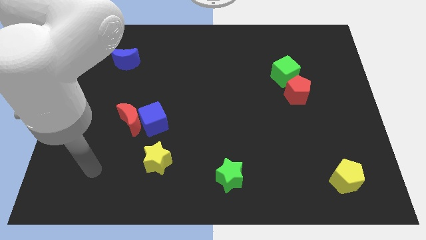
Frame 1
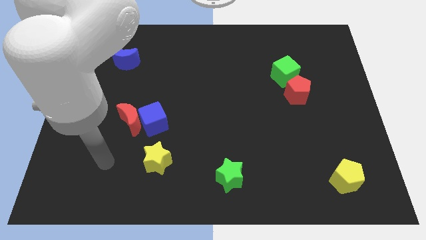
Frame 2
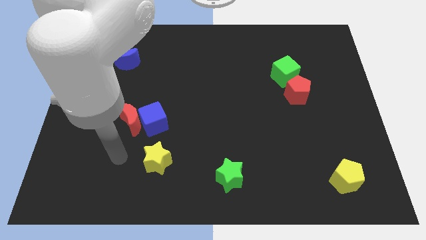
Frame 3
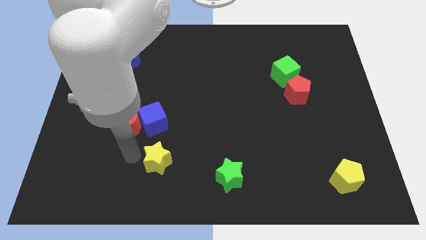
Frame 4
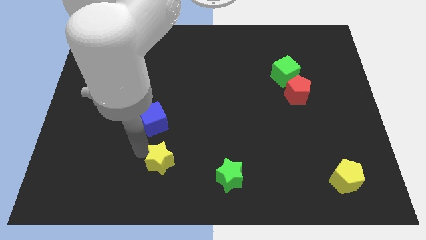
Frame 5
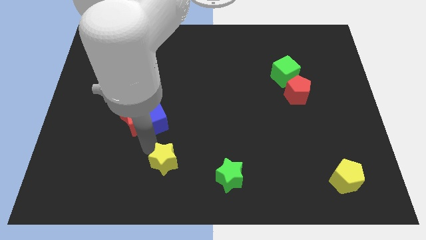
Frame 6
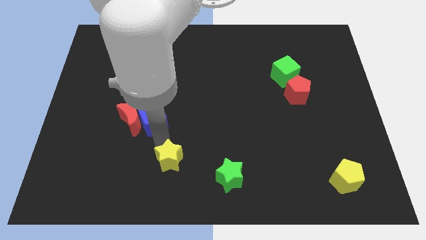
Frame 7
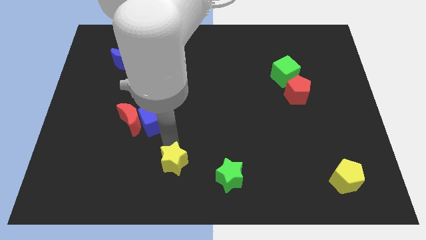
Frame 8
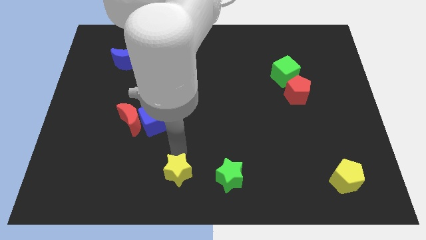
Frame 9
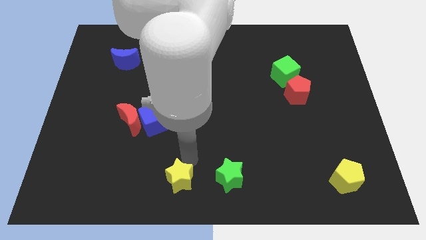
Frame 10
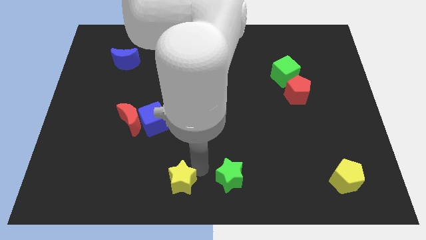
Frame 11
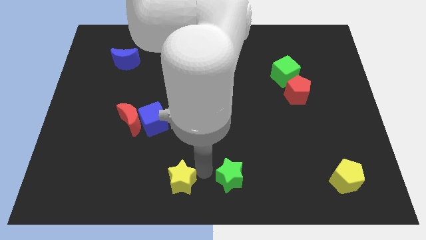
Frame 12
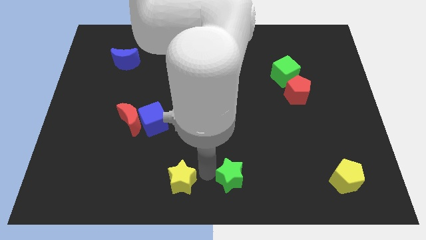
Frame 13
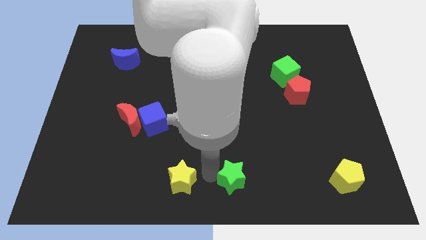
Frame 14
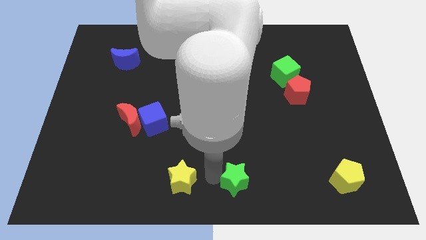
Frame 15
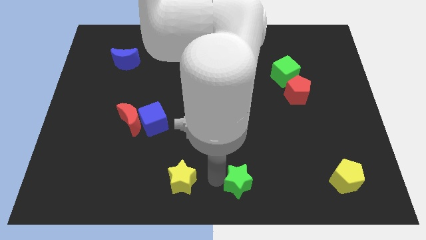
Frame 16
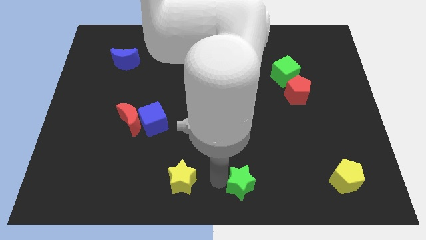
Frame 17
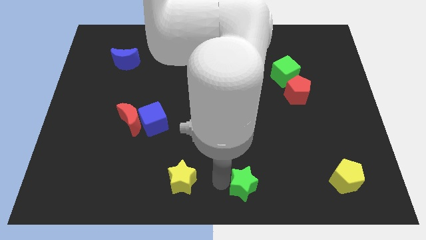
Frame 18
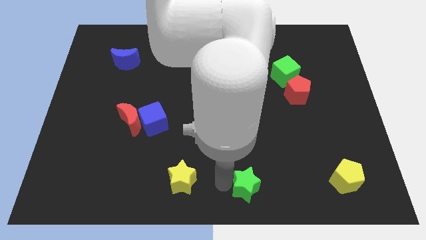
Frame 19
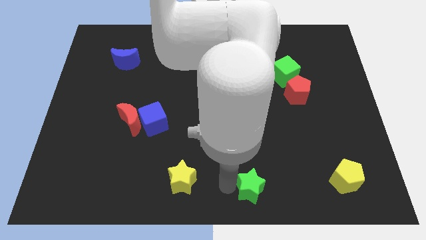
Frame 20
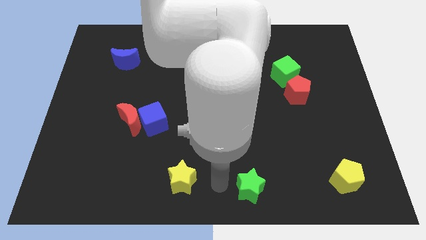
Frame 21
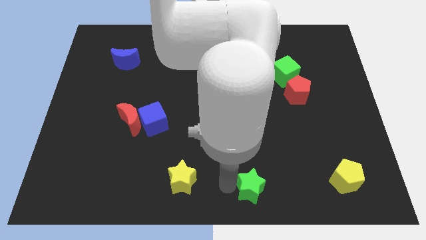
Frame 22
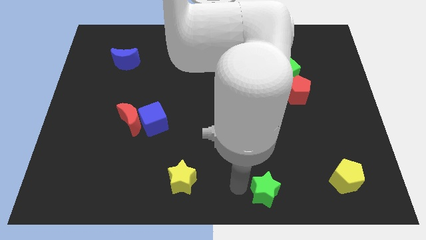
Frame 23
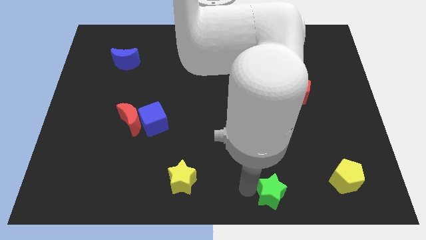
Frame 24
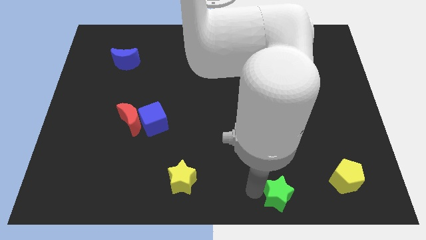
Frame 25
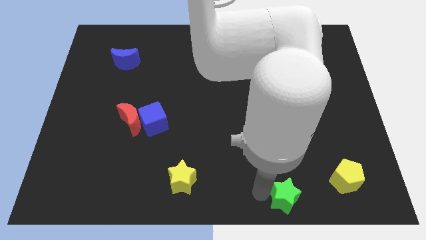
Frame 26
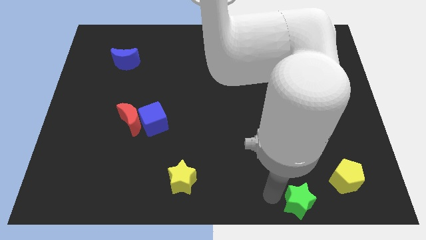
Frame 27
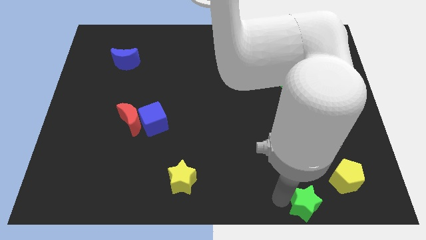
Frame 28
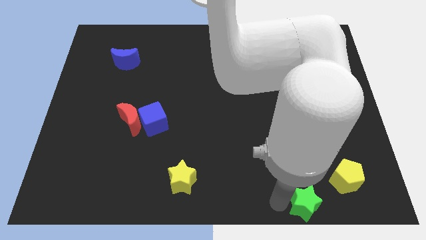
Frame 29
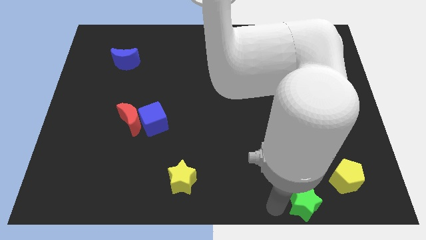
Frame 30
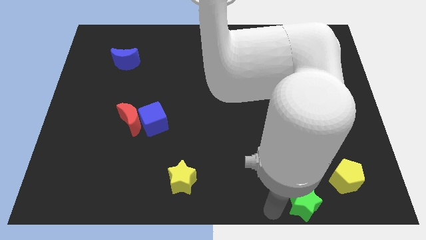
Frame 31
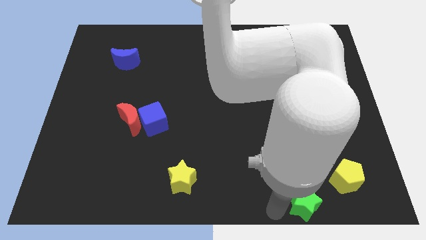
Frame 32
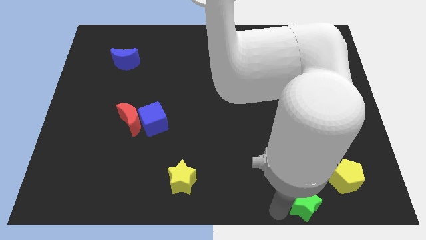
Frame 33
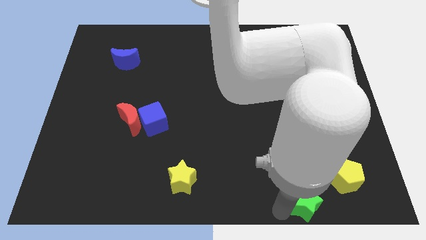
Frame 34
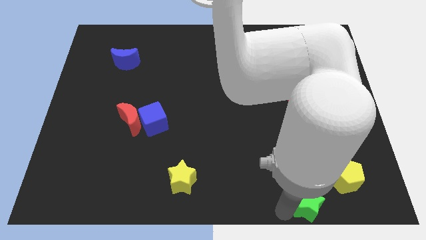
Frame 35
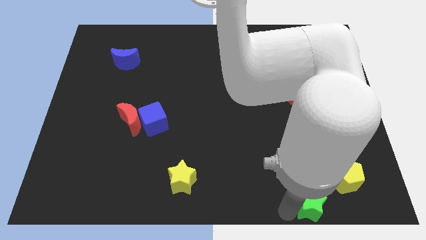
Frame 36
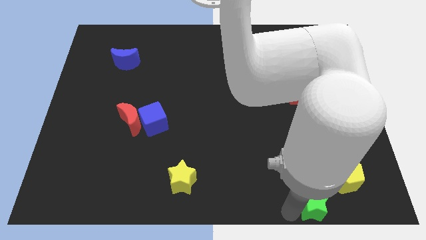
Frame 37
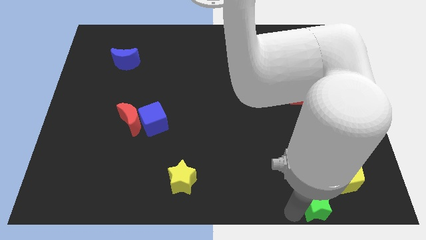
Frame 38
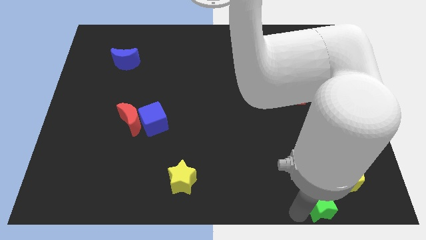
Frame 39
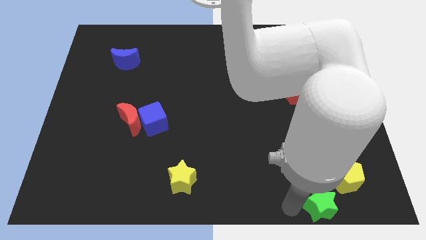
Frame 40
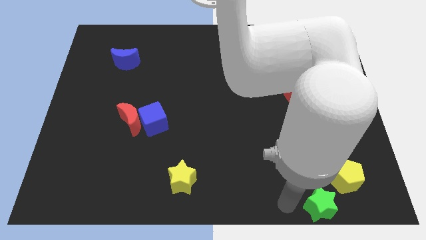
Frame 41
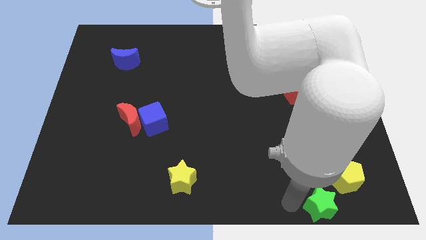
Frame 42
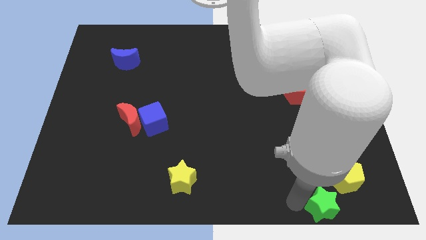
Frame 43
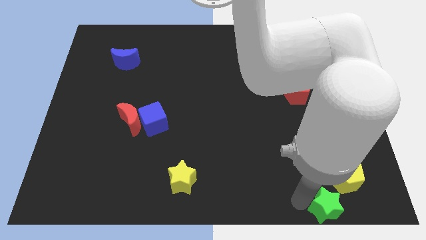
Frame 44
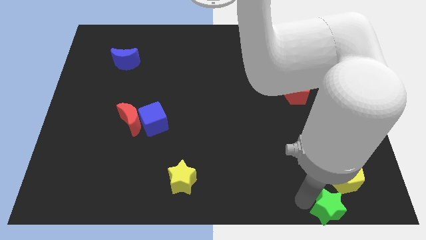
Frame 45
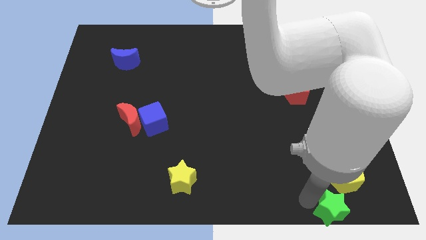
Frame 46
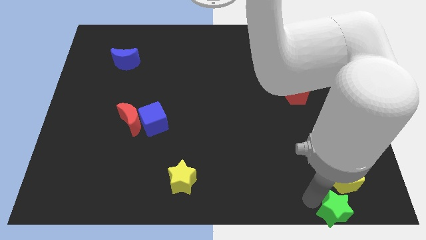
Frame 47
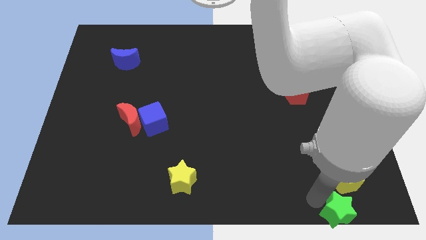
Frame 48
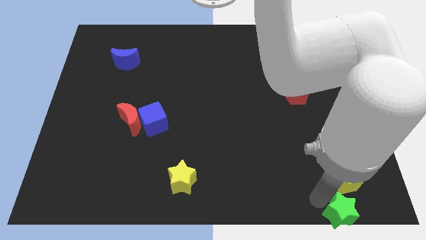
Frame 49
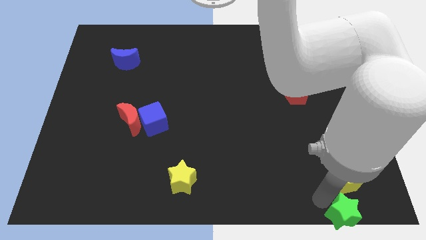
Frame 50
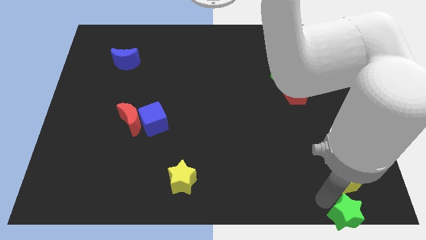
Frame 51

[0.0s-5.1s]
slide the green star to the bottom right corner

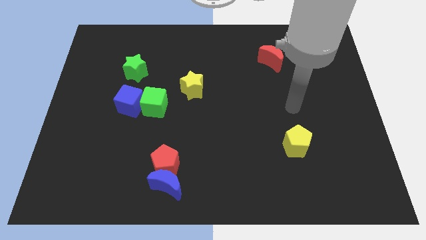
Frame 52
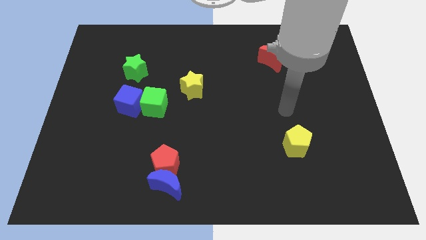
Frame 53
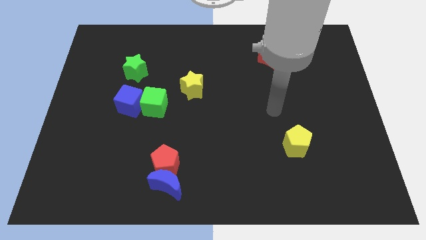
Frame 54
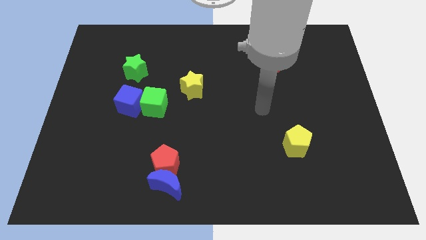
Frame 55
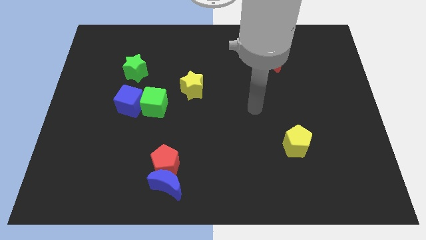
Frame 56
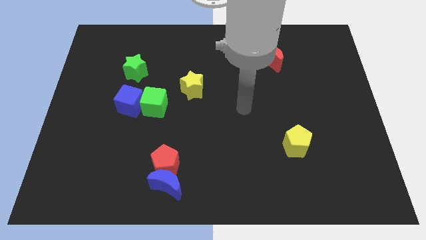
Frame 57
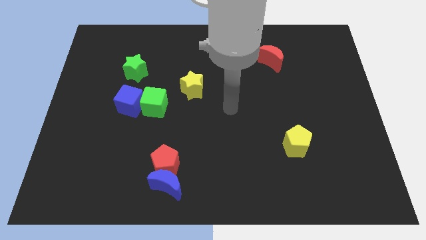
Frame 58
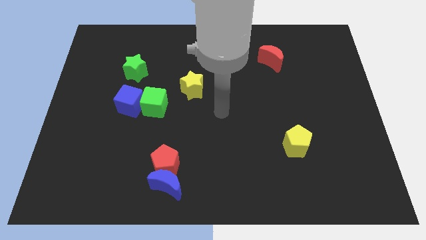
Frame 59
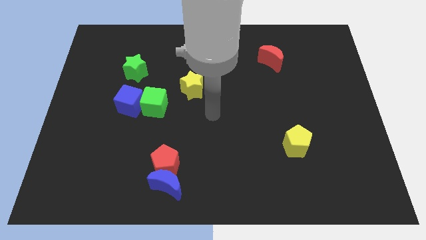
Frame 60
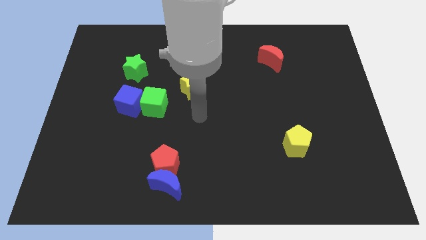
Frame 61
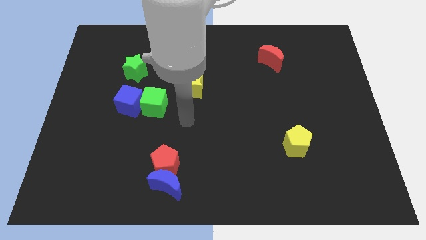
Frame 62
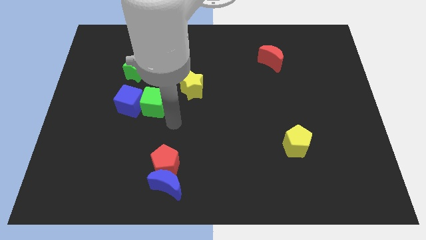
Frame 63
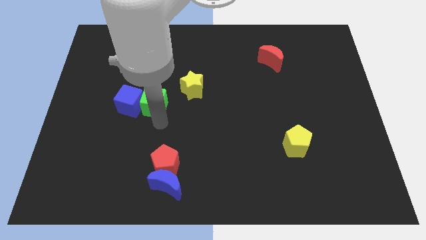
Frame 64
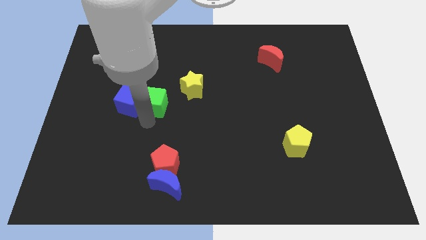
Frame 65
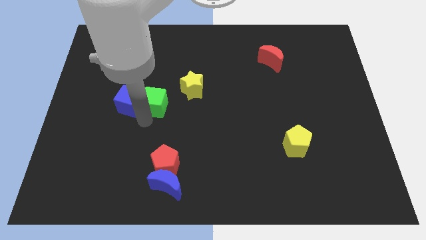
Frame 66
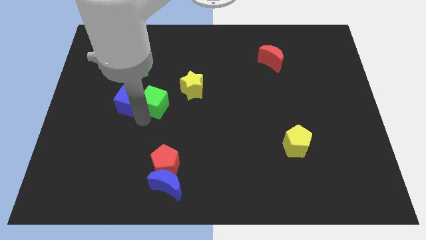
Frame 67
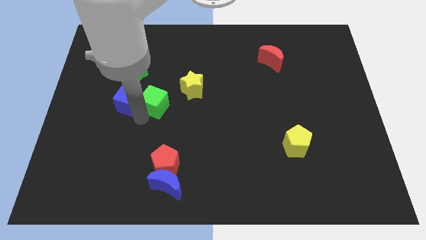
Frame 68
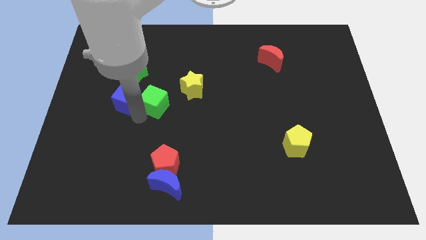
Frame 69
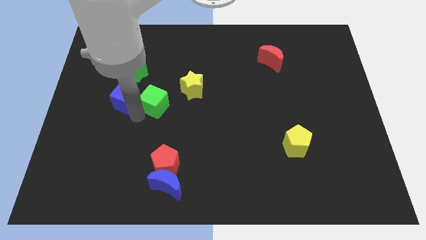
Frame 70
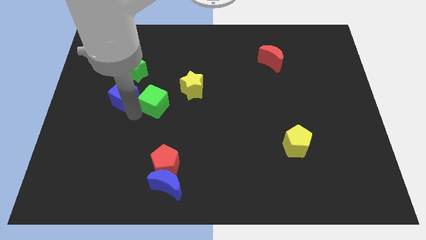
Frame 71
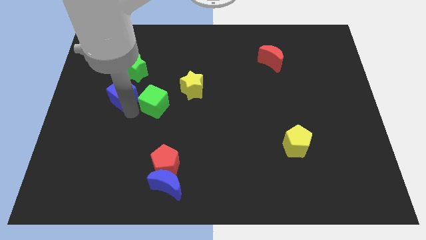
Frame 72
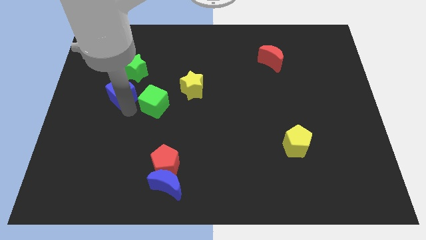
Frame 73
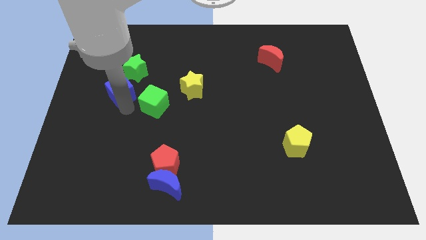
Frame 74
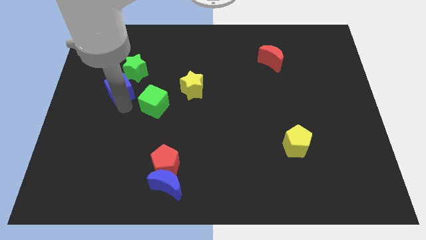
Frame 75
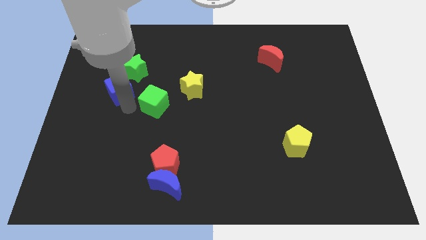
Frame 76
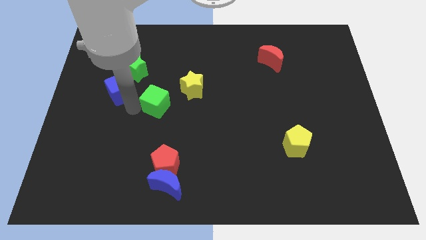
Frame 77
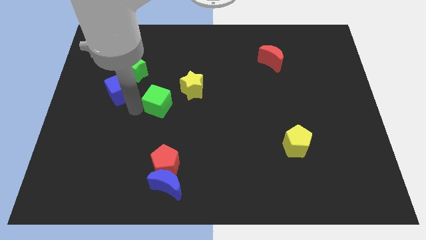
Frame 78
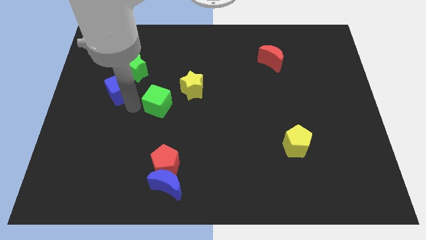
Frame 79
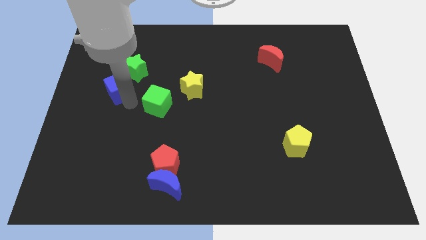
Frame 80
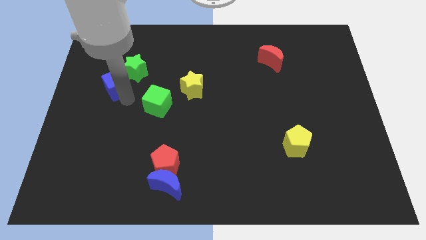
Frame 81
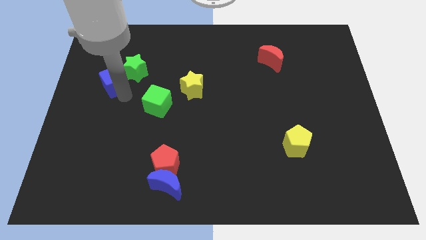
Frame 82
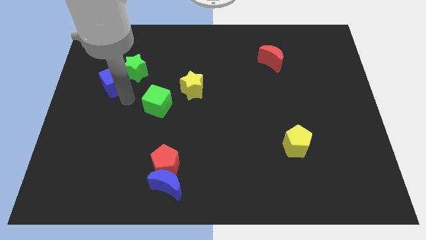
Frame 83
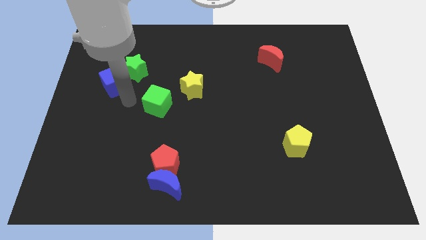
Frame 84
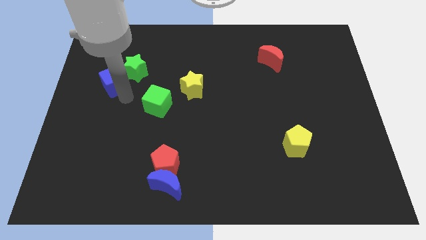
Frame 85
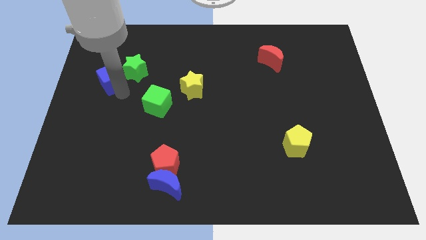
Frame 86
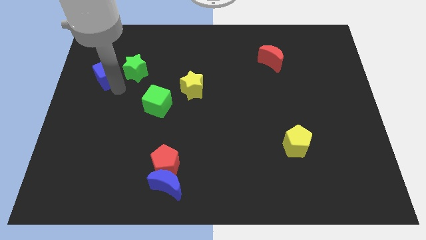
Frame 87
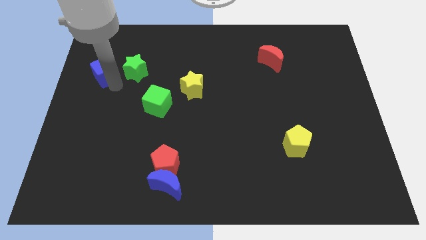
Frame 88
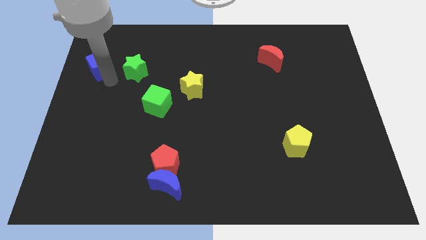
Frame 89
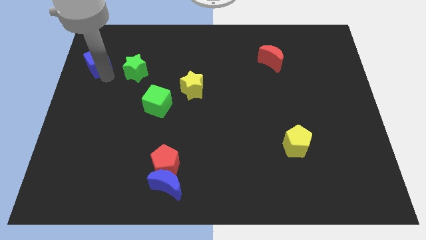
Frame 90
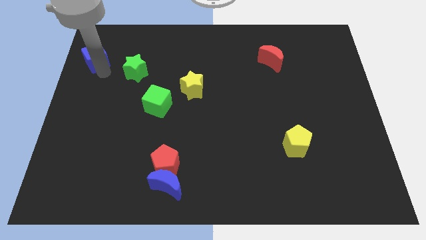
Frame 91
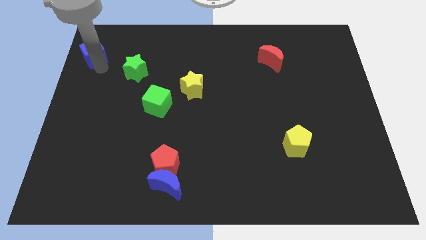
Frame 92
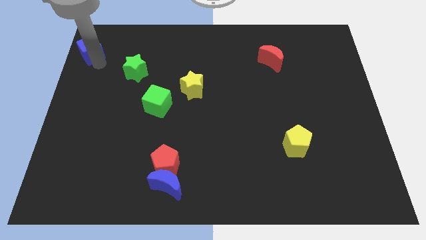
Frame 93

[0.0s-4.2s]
put the blue cube to the upper left corner
